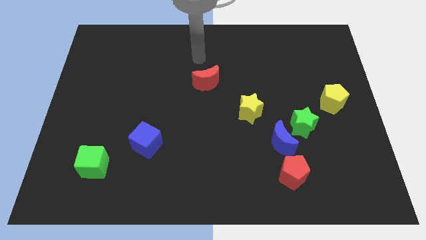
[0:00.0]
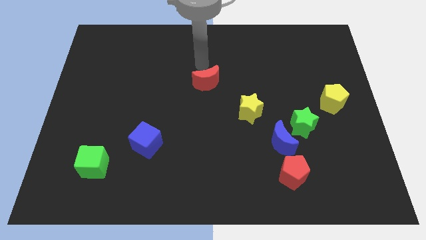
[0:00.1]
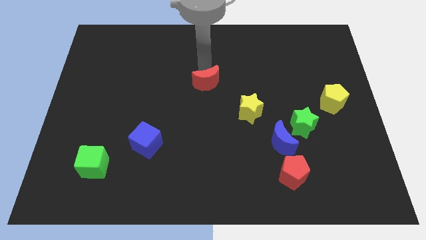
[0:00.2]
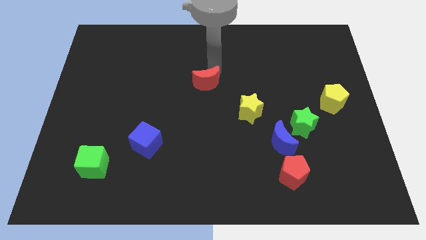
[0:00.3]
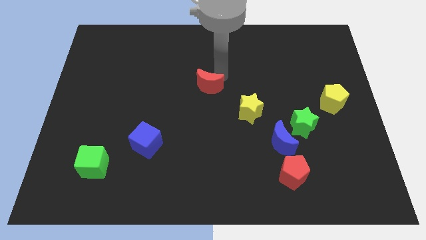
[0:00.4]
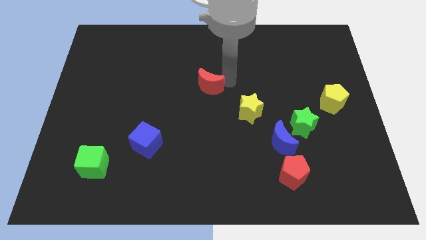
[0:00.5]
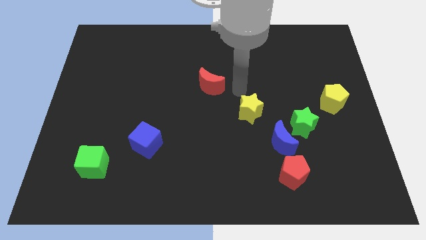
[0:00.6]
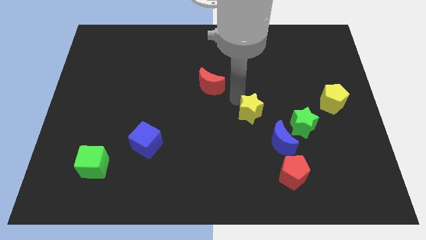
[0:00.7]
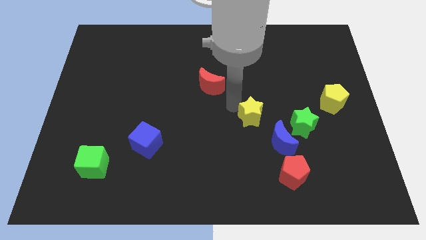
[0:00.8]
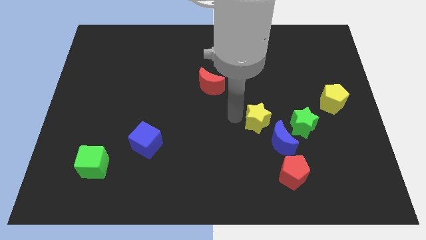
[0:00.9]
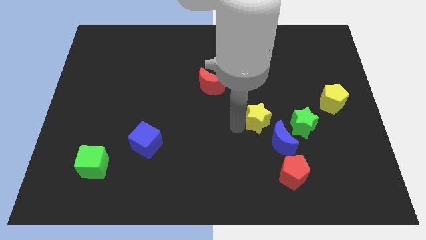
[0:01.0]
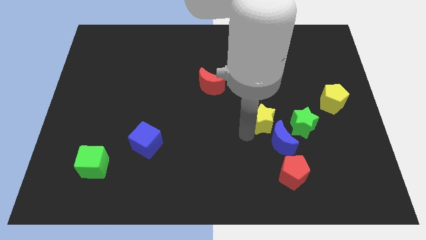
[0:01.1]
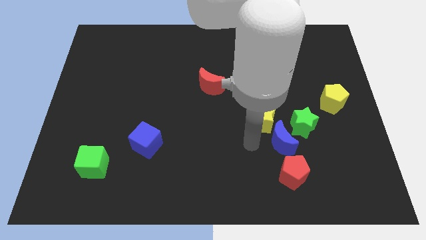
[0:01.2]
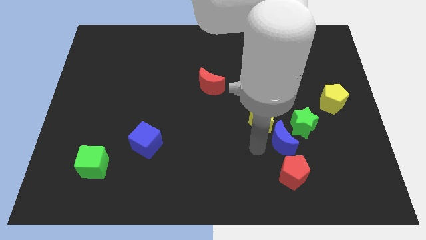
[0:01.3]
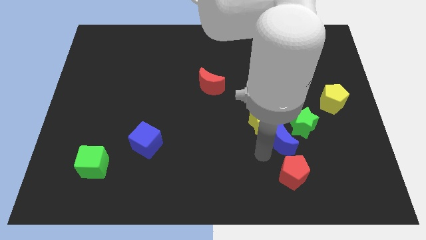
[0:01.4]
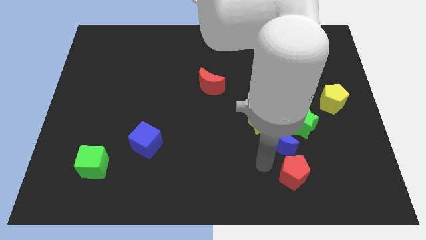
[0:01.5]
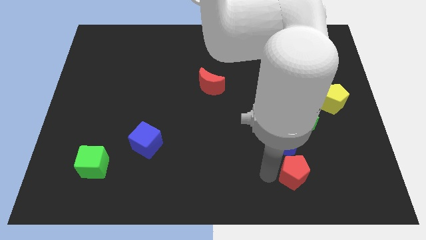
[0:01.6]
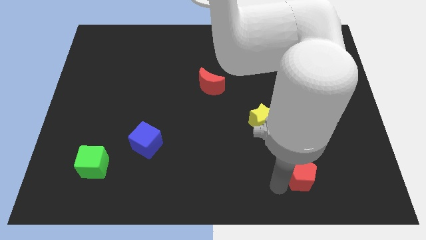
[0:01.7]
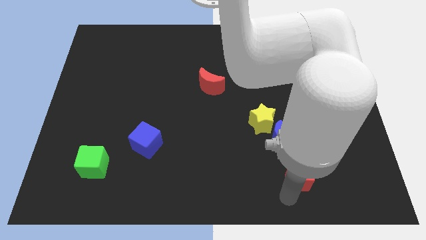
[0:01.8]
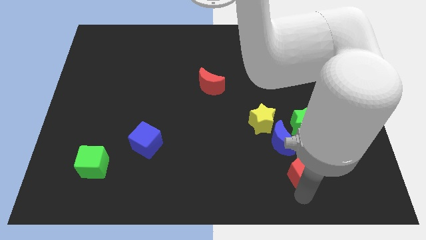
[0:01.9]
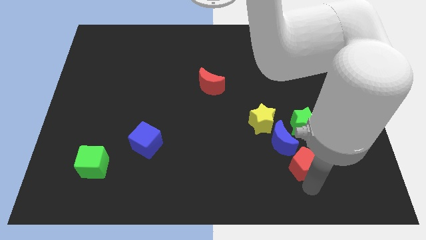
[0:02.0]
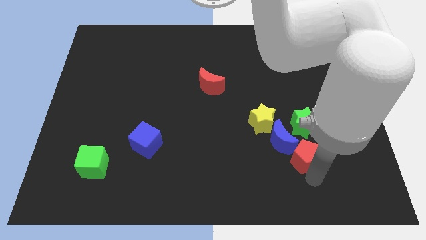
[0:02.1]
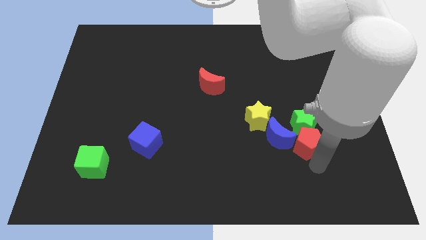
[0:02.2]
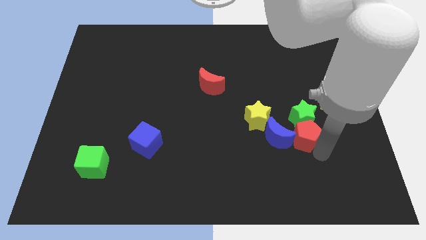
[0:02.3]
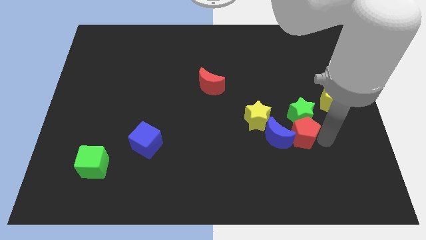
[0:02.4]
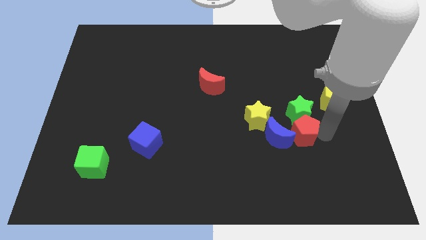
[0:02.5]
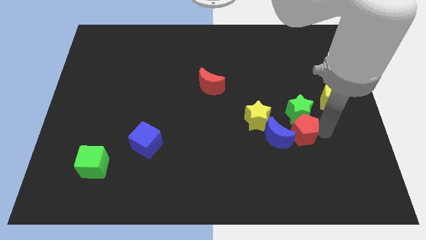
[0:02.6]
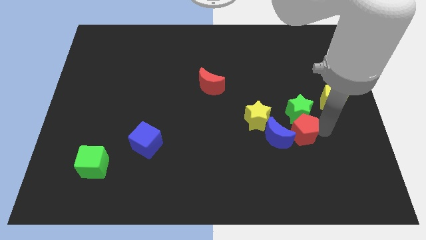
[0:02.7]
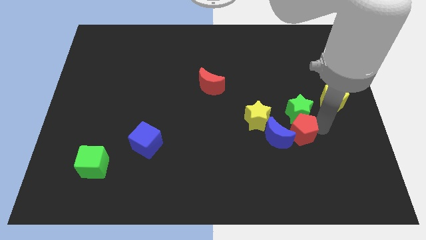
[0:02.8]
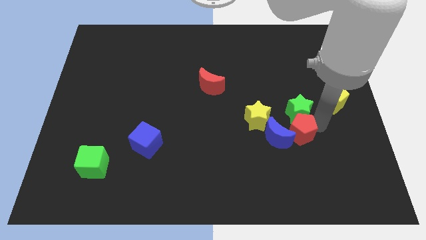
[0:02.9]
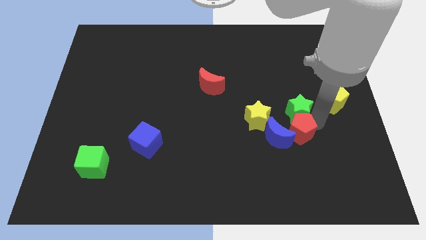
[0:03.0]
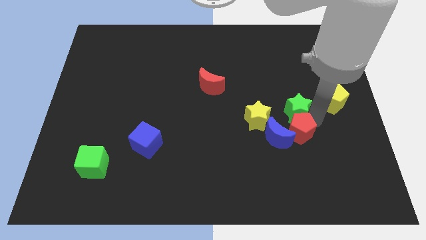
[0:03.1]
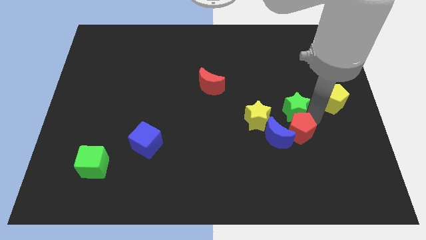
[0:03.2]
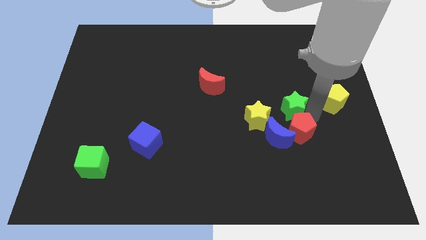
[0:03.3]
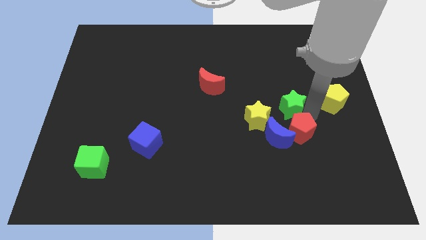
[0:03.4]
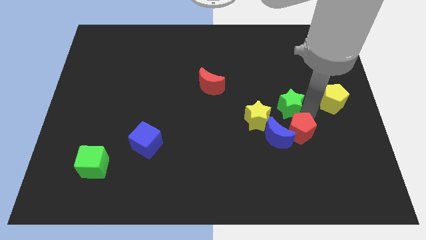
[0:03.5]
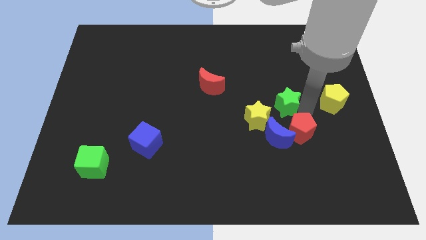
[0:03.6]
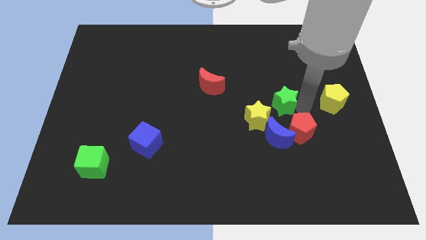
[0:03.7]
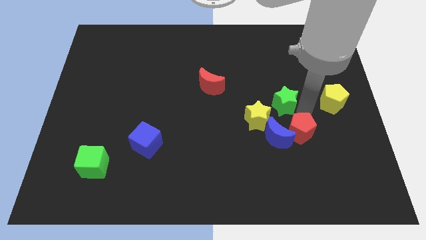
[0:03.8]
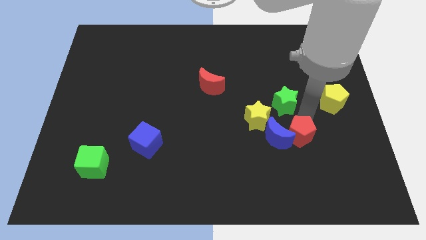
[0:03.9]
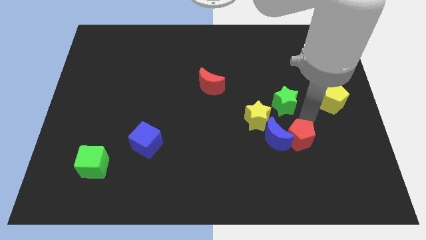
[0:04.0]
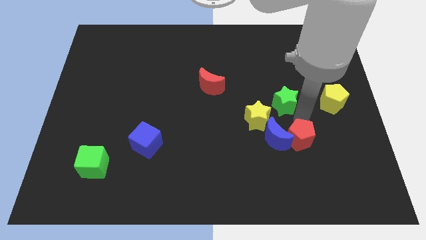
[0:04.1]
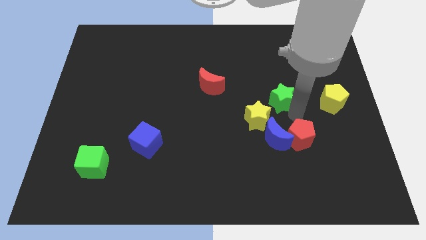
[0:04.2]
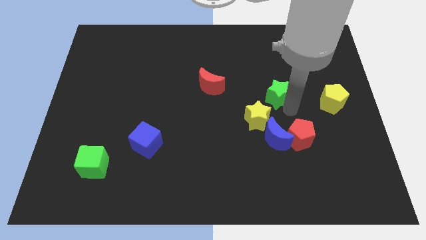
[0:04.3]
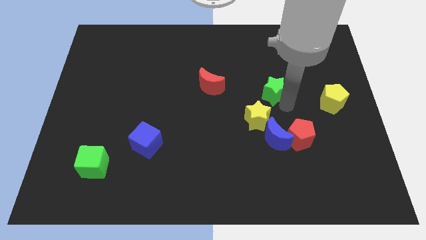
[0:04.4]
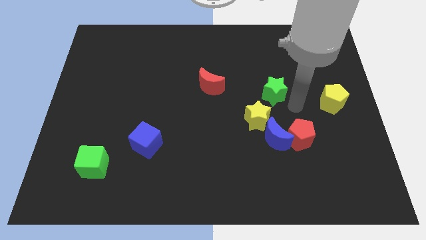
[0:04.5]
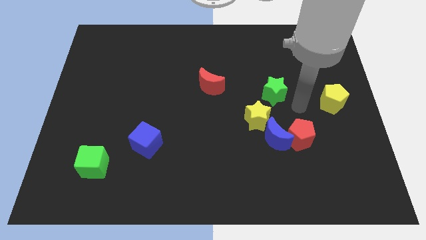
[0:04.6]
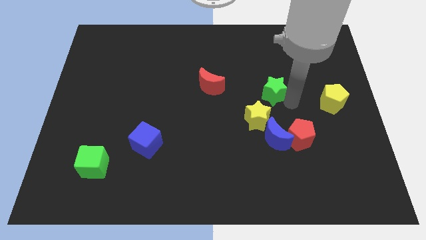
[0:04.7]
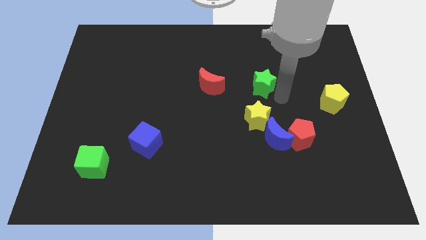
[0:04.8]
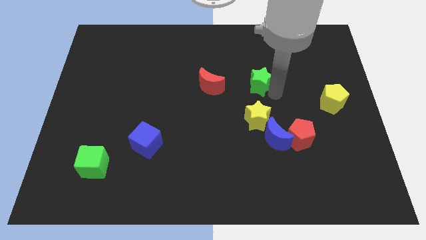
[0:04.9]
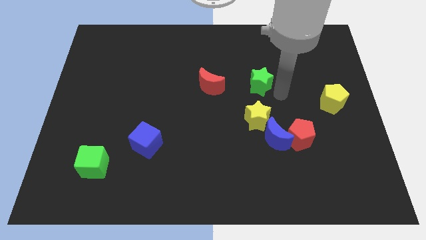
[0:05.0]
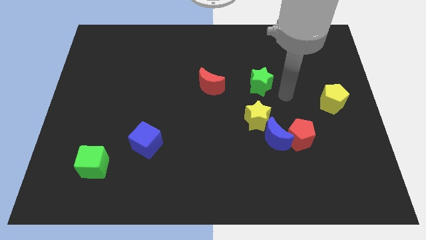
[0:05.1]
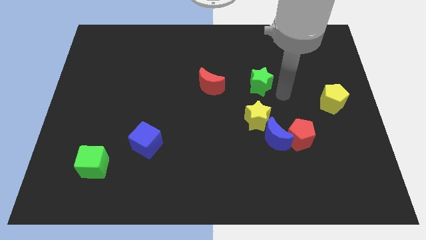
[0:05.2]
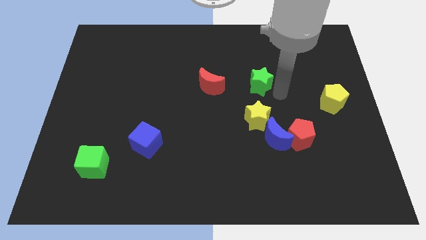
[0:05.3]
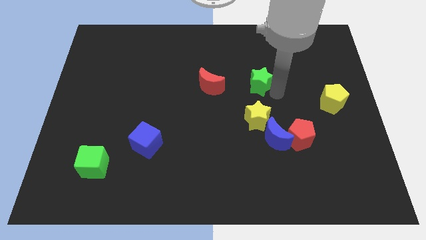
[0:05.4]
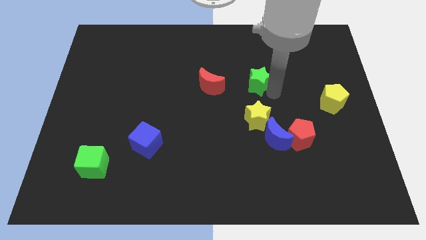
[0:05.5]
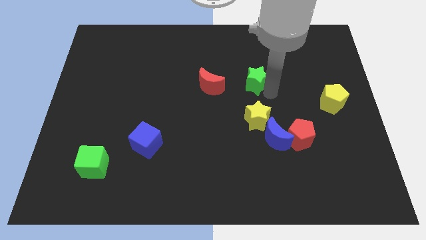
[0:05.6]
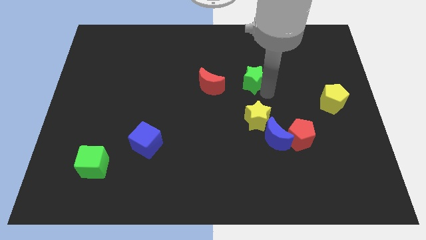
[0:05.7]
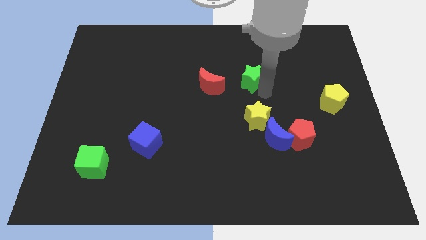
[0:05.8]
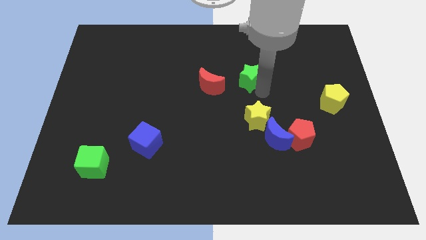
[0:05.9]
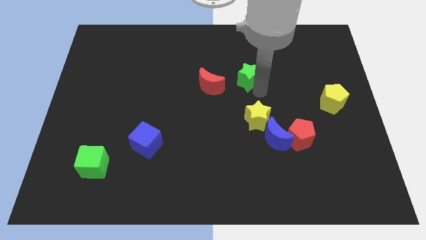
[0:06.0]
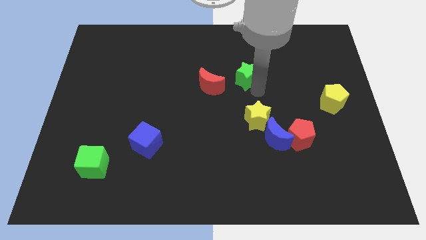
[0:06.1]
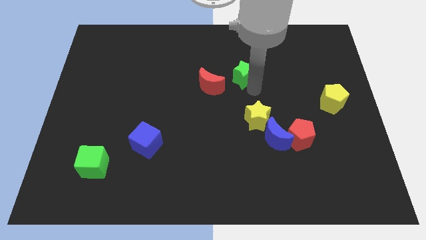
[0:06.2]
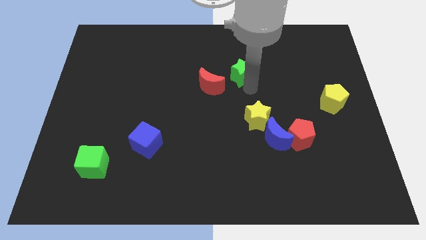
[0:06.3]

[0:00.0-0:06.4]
push the green star diagonally upwards and left

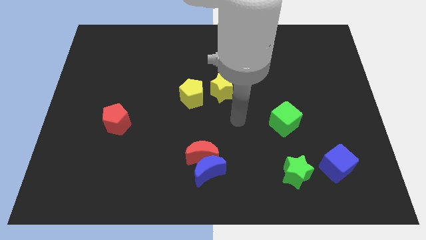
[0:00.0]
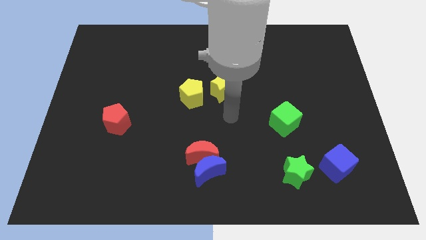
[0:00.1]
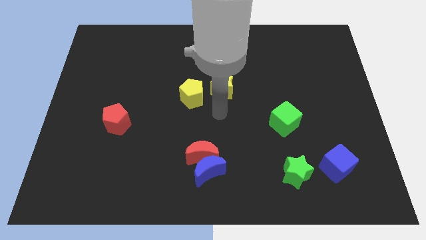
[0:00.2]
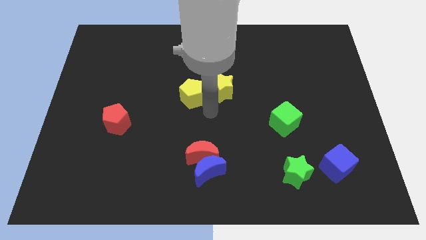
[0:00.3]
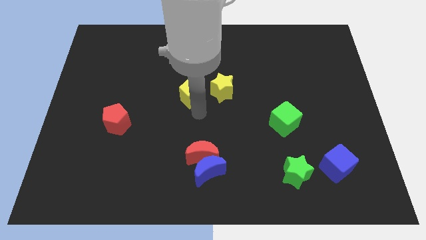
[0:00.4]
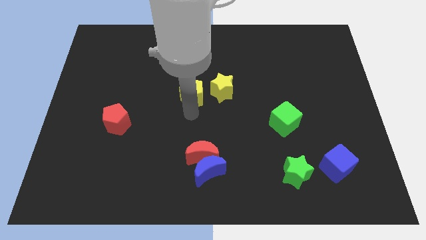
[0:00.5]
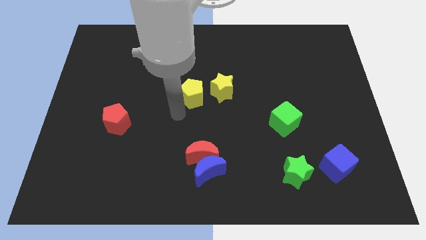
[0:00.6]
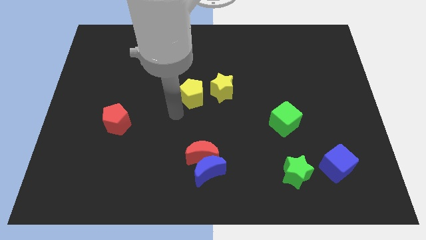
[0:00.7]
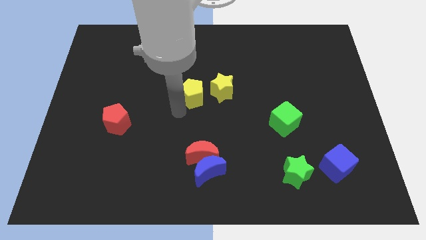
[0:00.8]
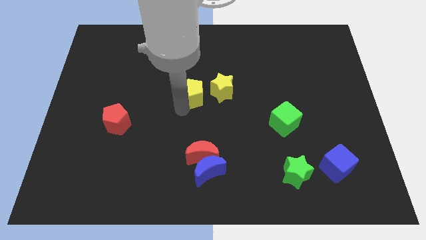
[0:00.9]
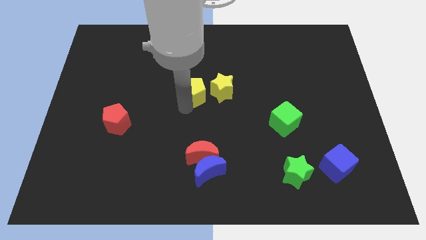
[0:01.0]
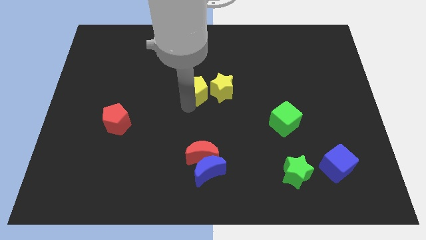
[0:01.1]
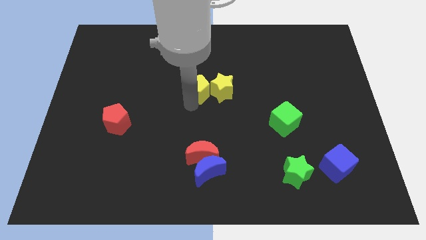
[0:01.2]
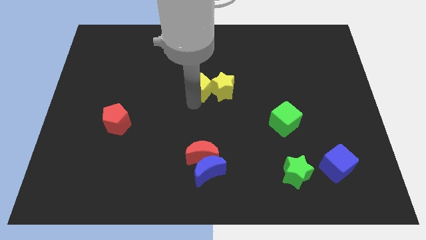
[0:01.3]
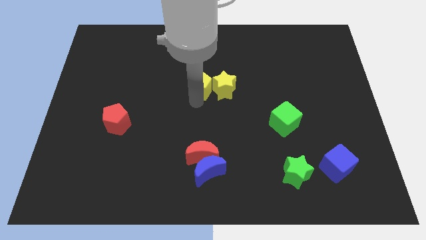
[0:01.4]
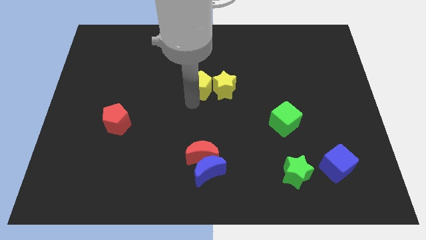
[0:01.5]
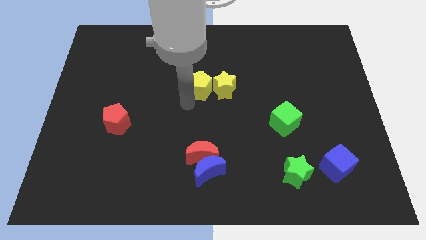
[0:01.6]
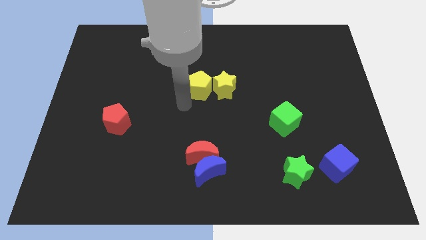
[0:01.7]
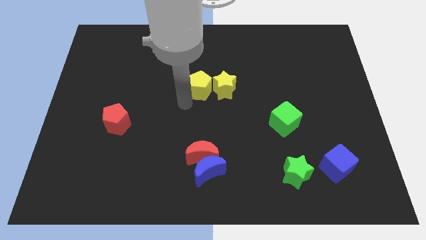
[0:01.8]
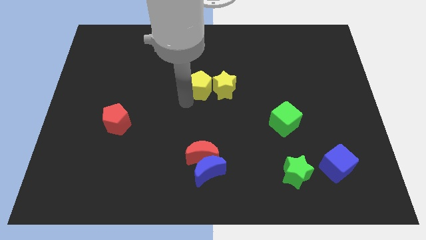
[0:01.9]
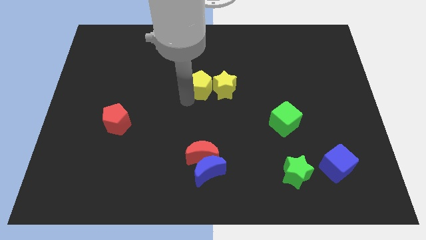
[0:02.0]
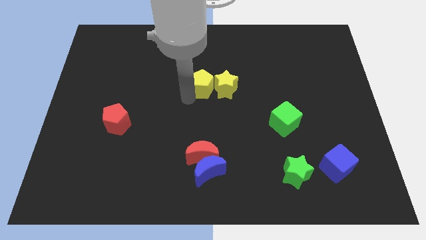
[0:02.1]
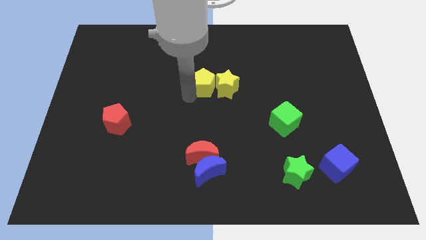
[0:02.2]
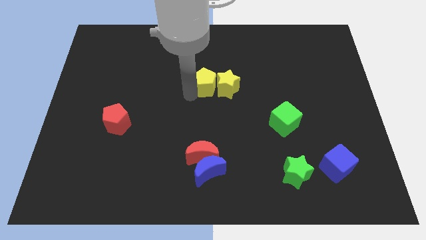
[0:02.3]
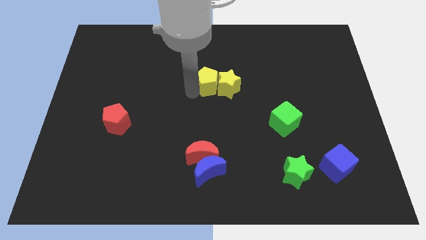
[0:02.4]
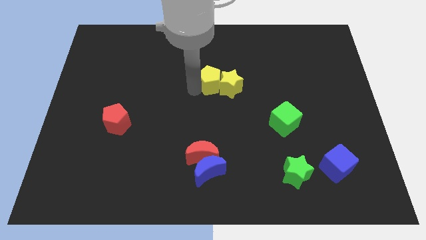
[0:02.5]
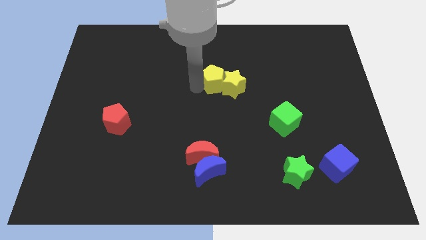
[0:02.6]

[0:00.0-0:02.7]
push the yellow pentagon up and right slightly
